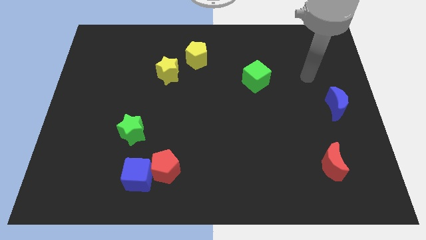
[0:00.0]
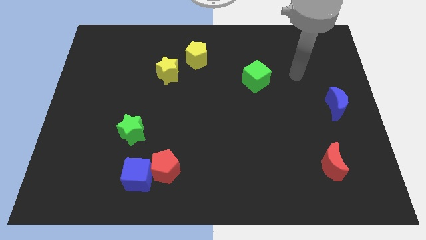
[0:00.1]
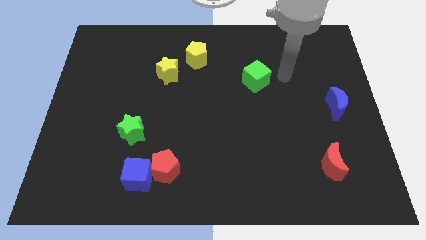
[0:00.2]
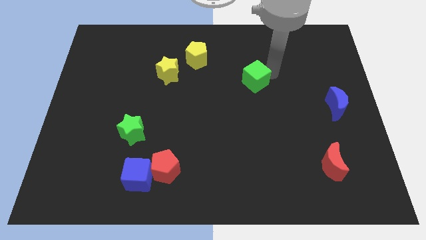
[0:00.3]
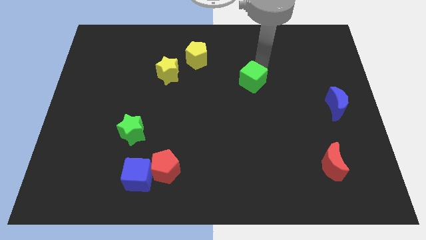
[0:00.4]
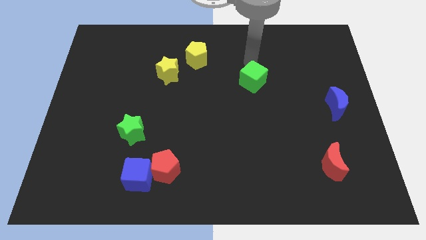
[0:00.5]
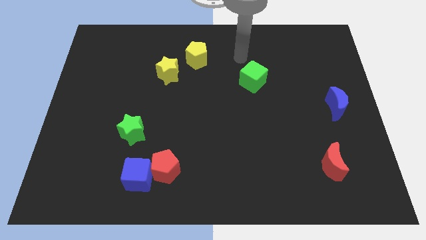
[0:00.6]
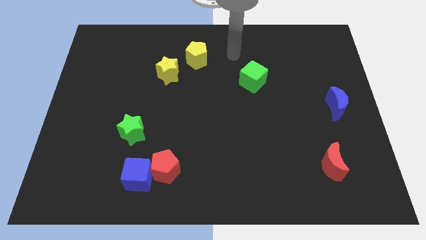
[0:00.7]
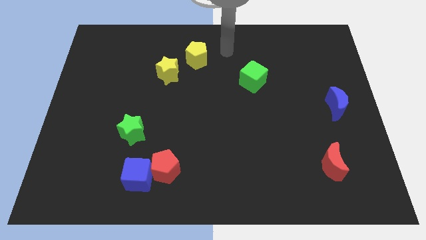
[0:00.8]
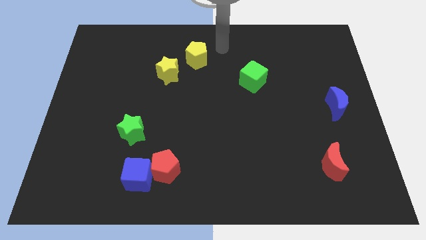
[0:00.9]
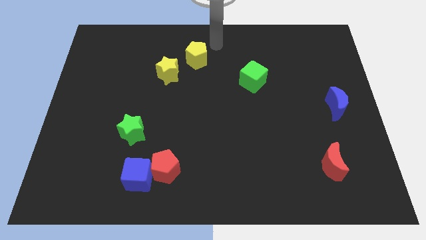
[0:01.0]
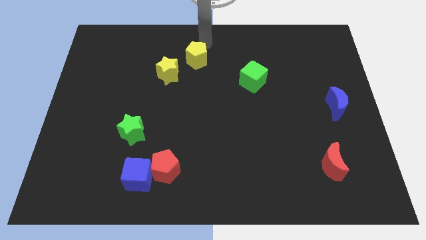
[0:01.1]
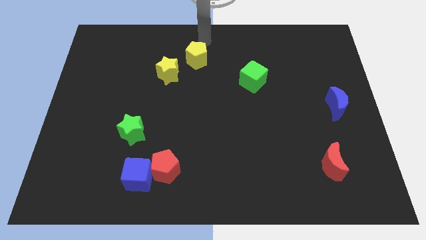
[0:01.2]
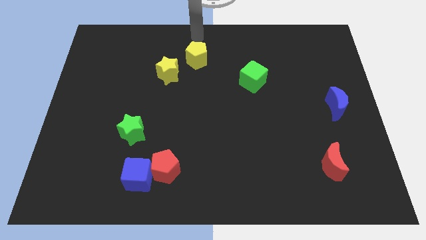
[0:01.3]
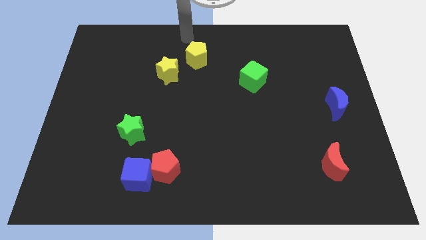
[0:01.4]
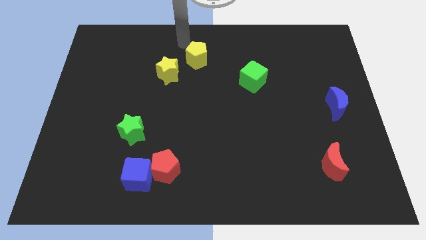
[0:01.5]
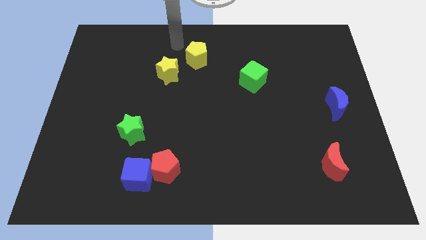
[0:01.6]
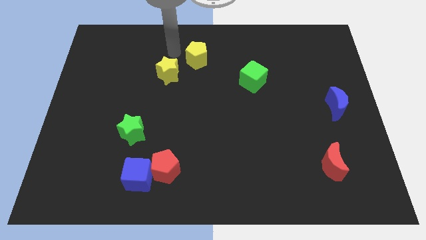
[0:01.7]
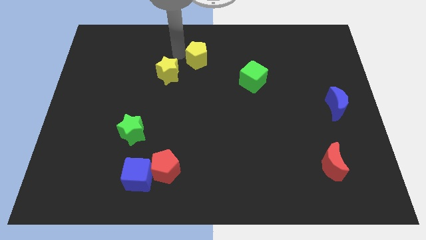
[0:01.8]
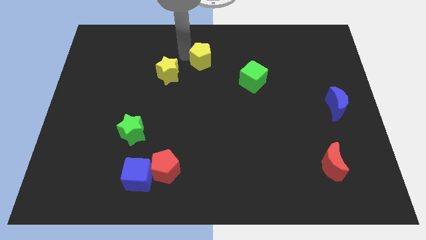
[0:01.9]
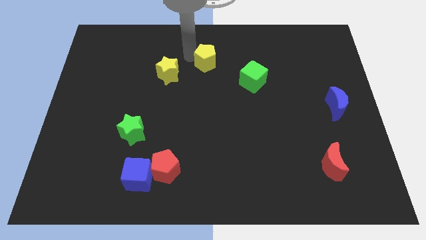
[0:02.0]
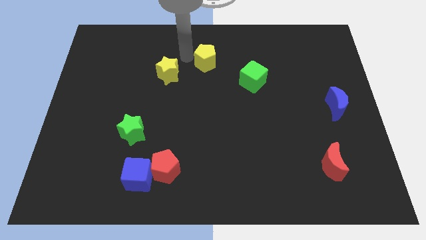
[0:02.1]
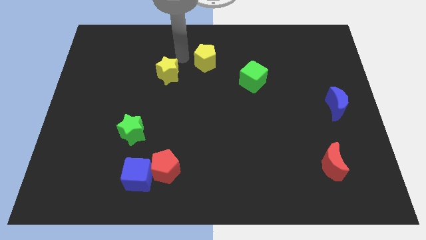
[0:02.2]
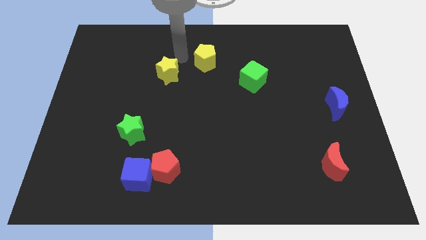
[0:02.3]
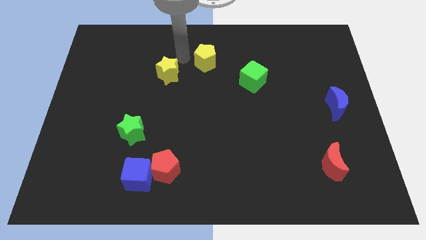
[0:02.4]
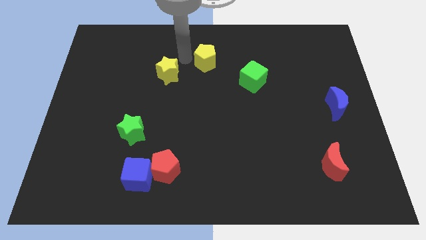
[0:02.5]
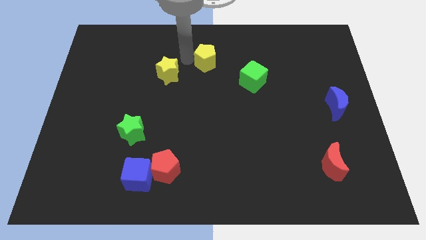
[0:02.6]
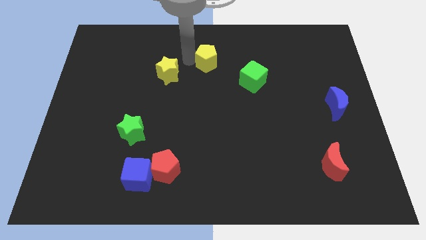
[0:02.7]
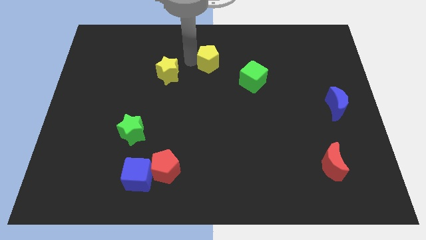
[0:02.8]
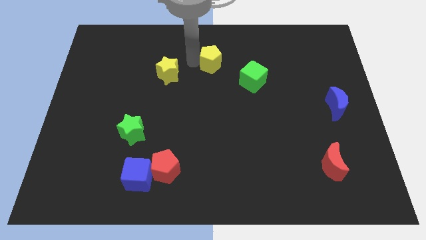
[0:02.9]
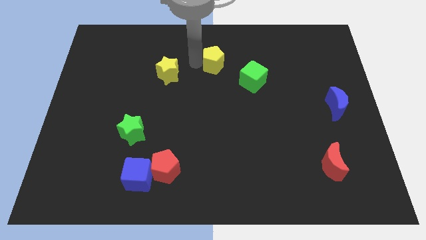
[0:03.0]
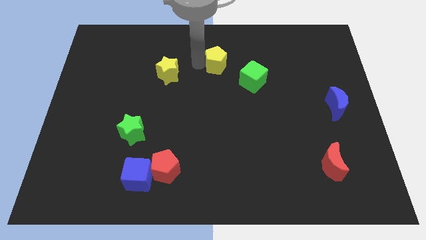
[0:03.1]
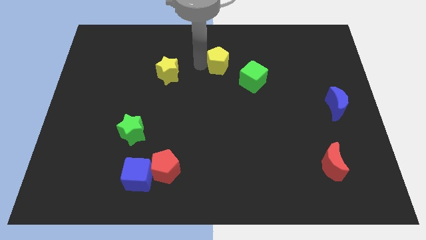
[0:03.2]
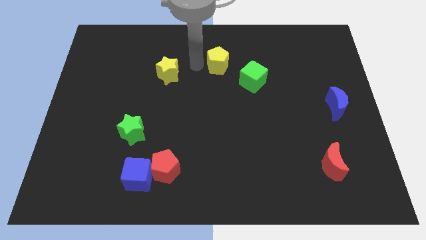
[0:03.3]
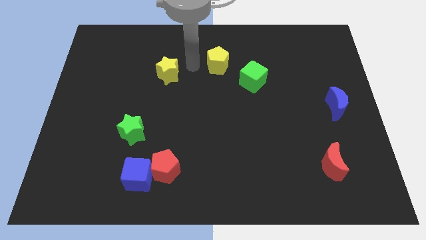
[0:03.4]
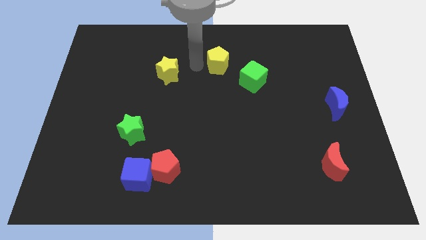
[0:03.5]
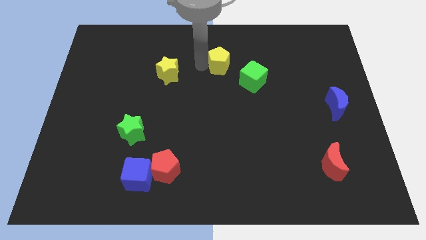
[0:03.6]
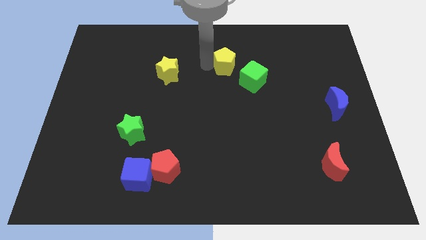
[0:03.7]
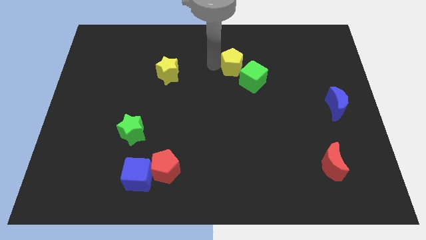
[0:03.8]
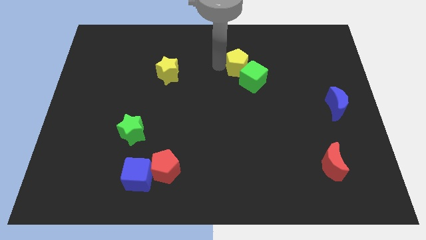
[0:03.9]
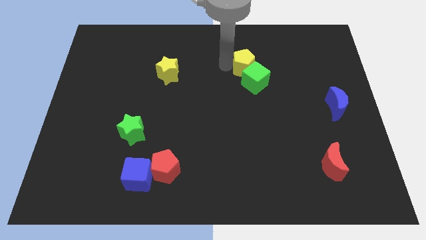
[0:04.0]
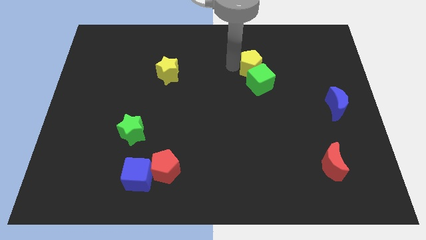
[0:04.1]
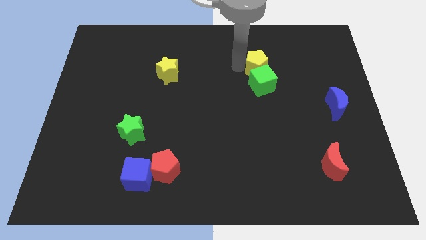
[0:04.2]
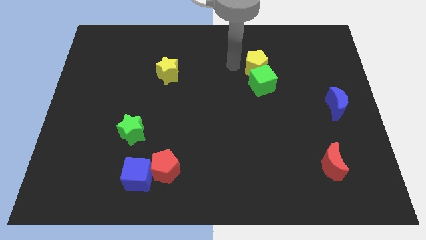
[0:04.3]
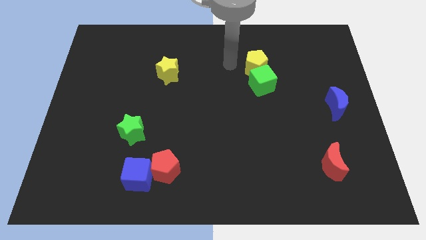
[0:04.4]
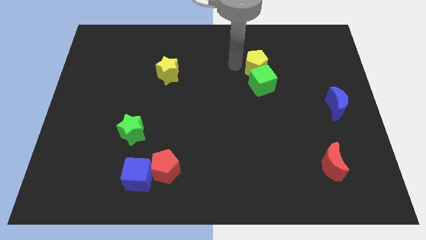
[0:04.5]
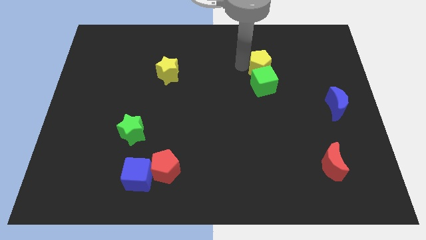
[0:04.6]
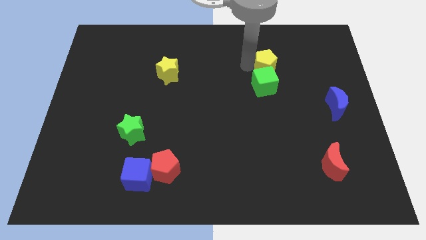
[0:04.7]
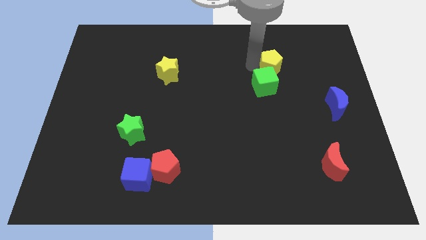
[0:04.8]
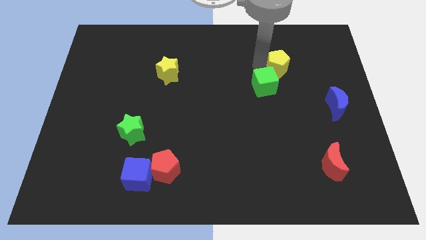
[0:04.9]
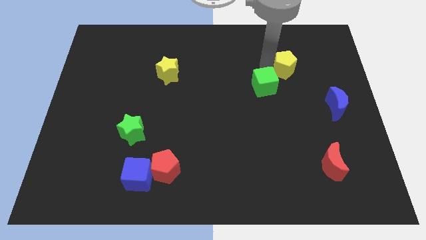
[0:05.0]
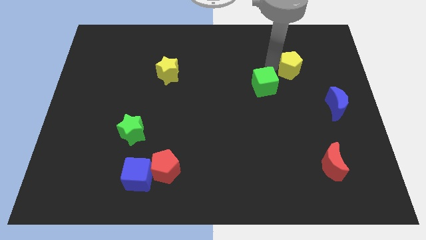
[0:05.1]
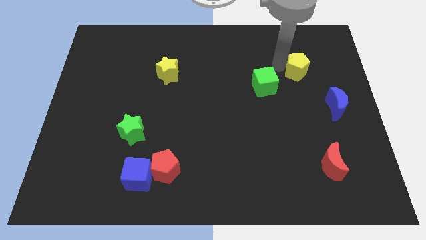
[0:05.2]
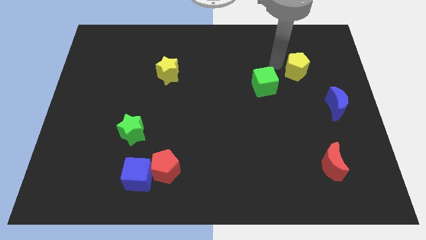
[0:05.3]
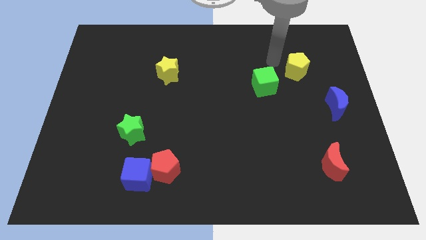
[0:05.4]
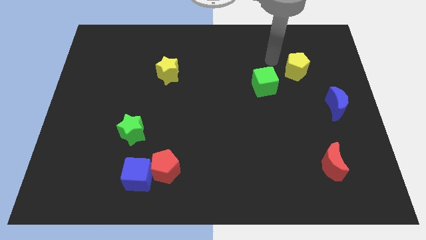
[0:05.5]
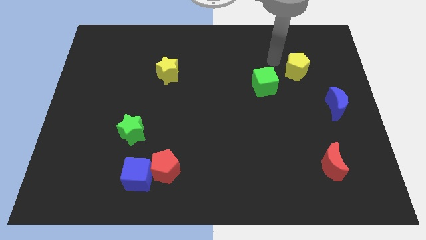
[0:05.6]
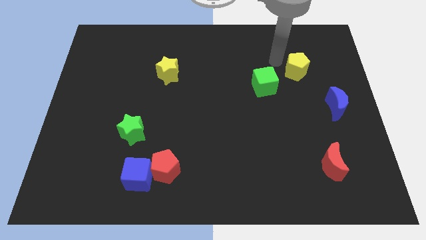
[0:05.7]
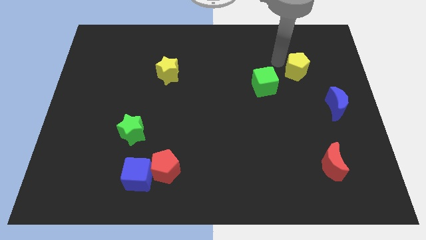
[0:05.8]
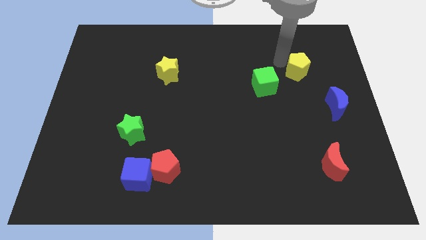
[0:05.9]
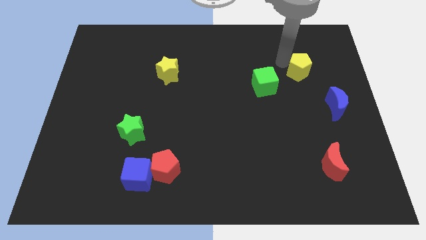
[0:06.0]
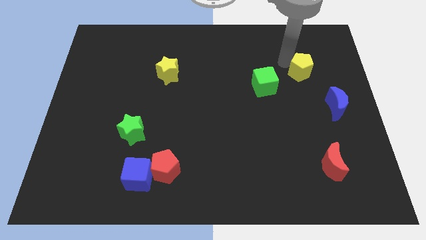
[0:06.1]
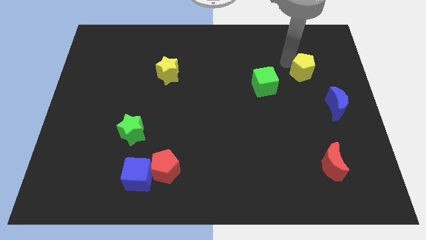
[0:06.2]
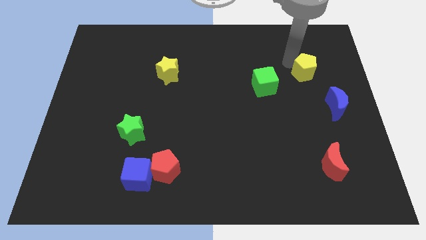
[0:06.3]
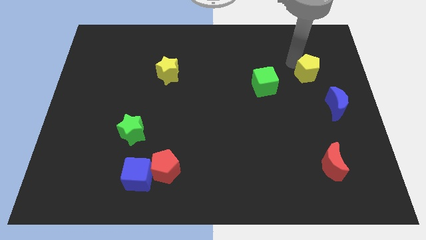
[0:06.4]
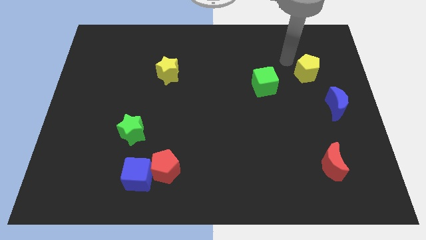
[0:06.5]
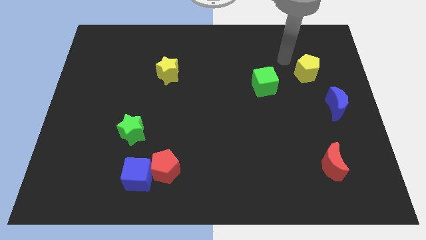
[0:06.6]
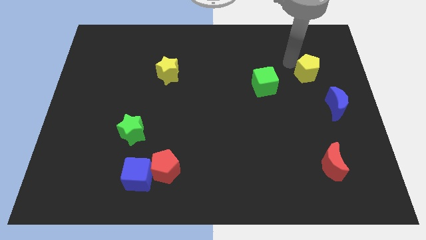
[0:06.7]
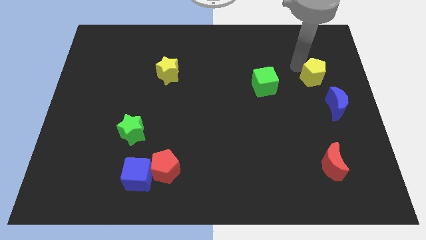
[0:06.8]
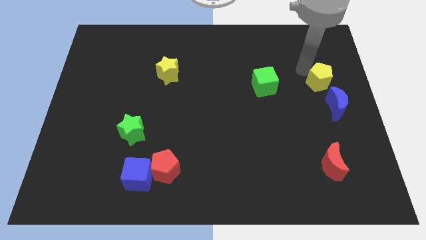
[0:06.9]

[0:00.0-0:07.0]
push the yellow pentagon to the center right

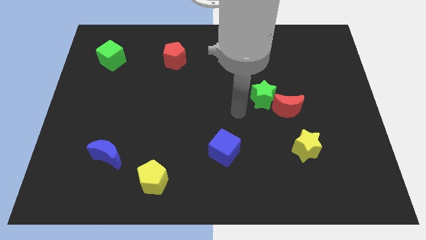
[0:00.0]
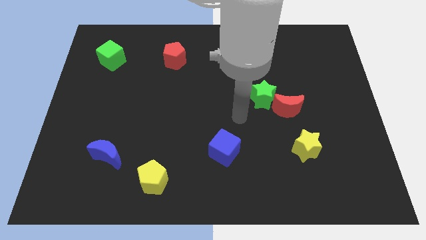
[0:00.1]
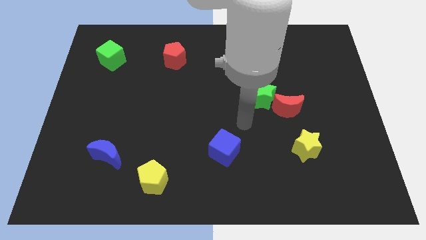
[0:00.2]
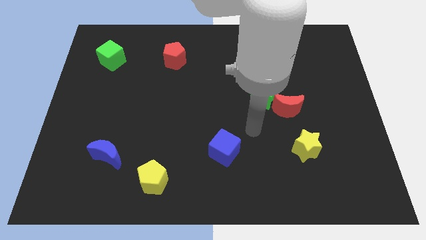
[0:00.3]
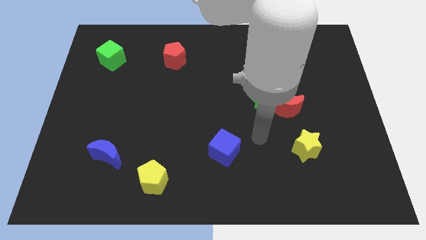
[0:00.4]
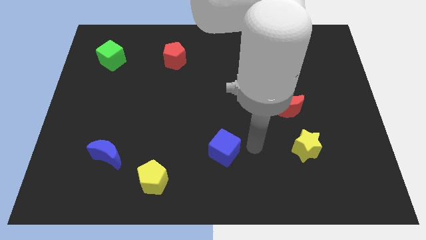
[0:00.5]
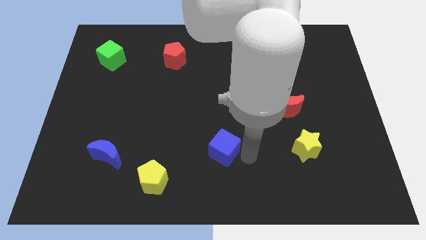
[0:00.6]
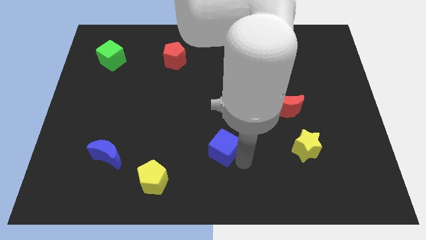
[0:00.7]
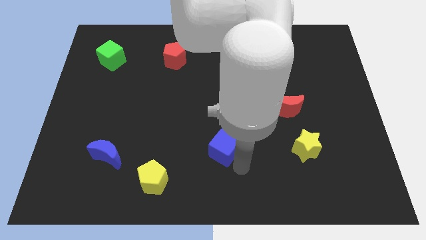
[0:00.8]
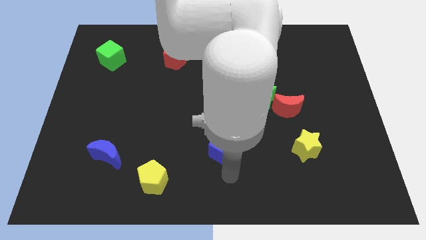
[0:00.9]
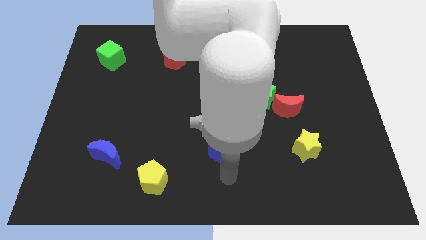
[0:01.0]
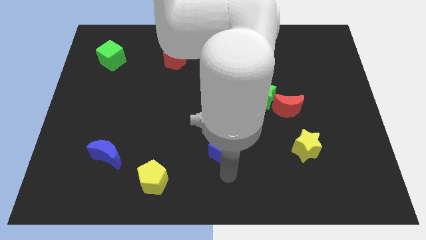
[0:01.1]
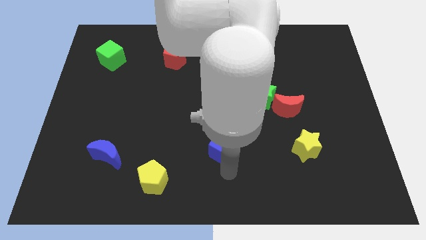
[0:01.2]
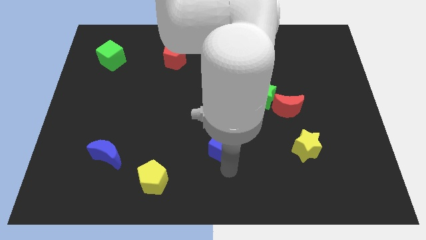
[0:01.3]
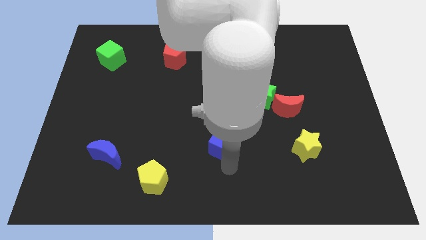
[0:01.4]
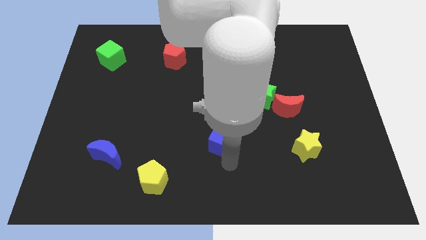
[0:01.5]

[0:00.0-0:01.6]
push the blue cube to the middle of the board
